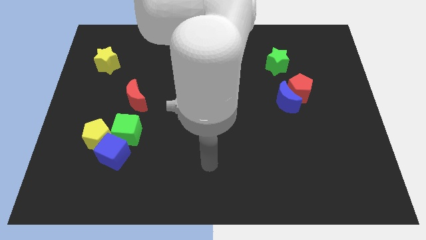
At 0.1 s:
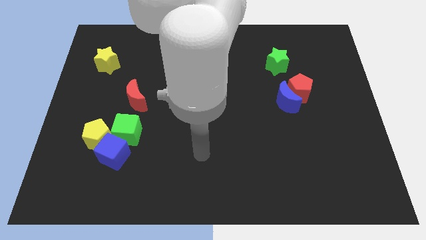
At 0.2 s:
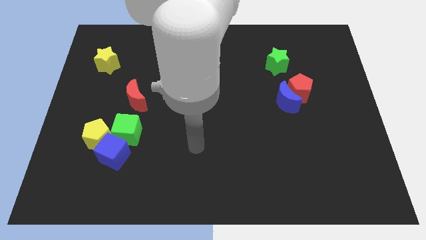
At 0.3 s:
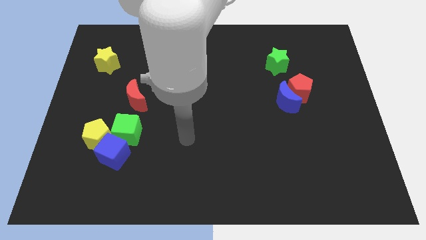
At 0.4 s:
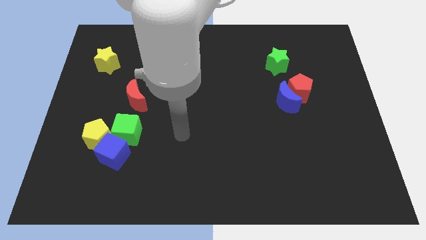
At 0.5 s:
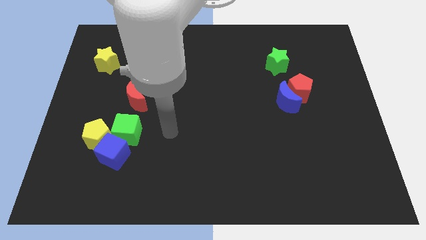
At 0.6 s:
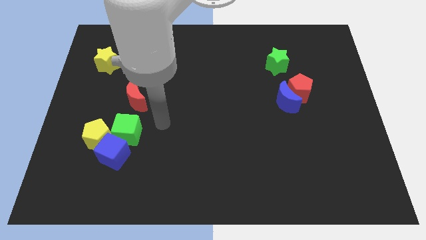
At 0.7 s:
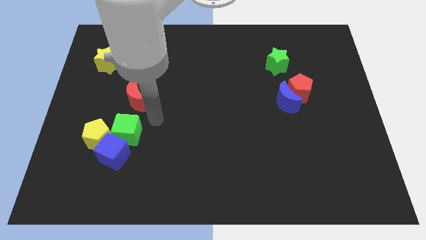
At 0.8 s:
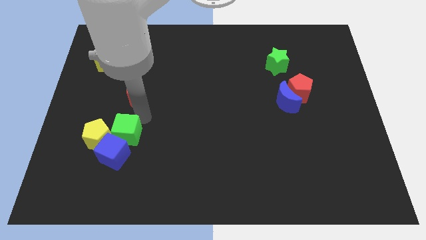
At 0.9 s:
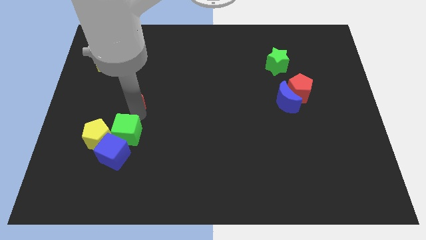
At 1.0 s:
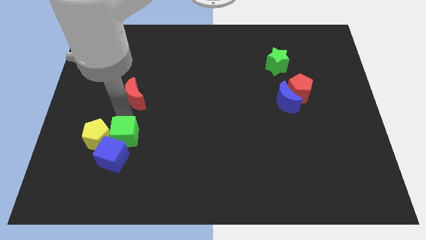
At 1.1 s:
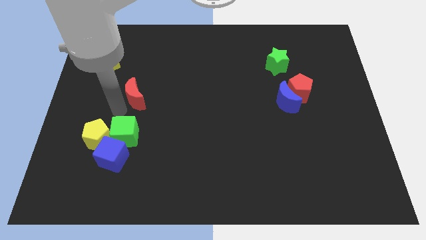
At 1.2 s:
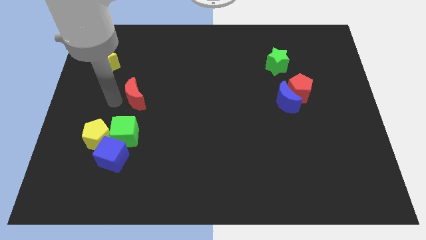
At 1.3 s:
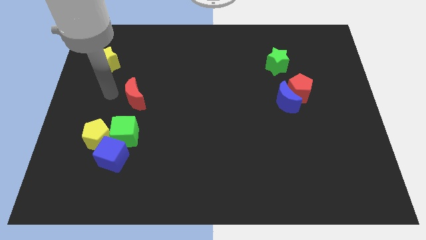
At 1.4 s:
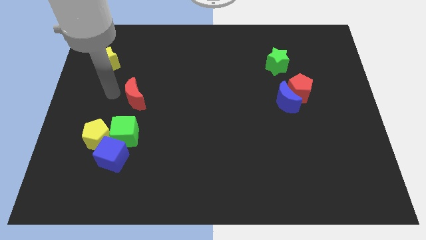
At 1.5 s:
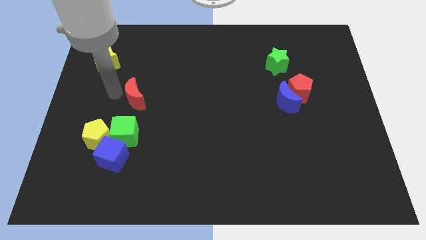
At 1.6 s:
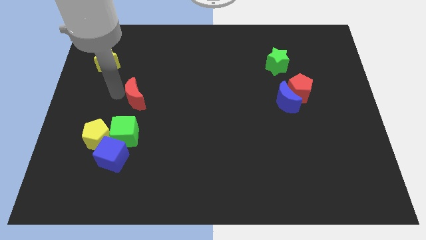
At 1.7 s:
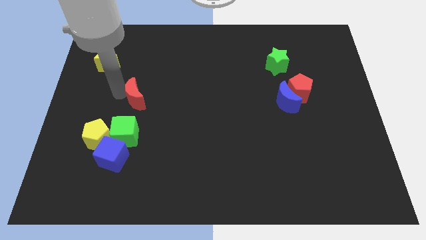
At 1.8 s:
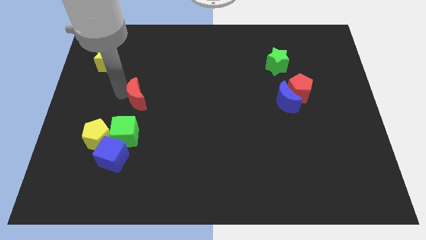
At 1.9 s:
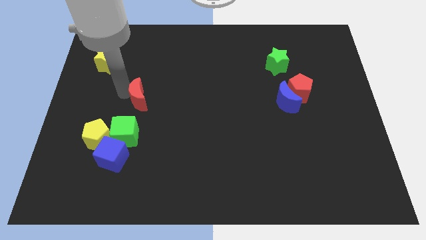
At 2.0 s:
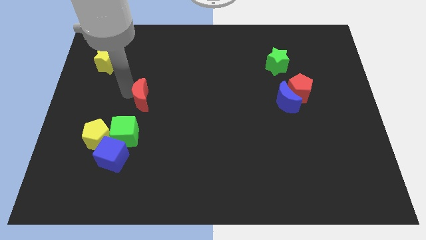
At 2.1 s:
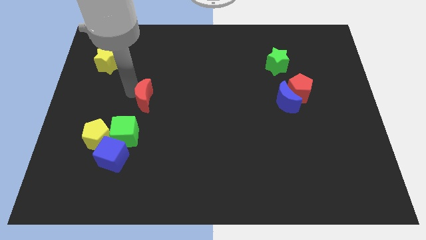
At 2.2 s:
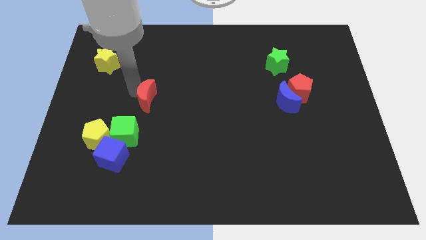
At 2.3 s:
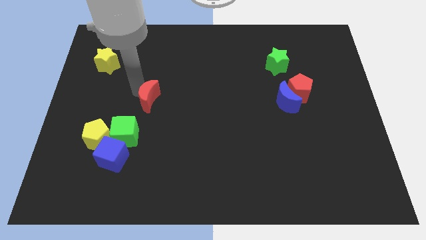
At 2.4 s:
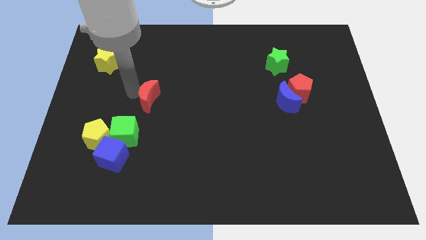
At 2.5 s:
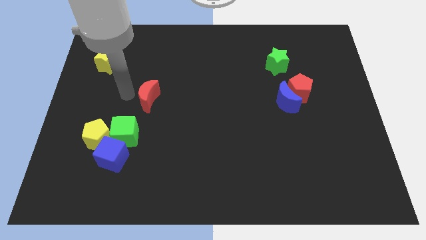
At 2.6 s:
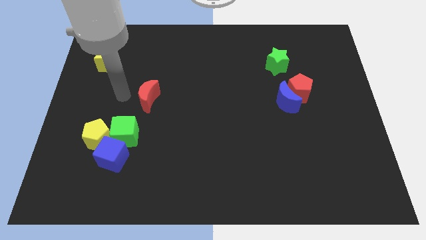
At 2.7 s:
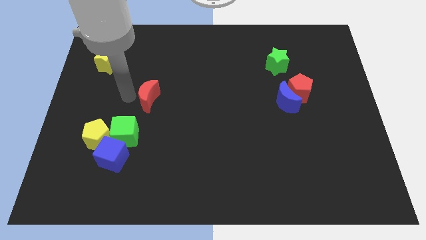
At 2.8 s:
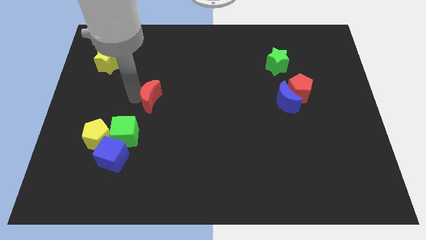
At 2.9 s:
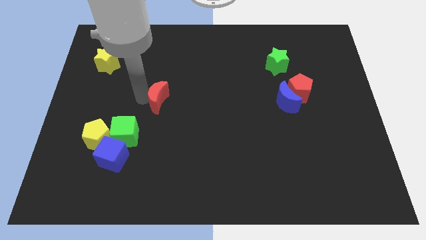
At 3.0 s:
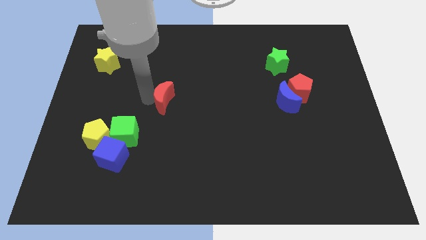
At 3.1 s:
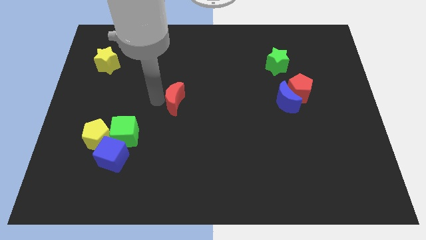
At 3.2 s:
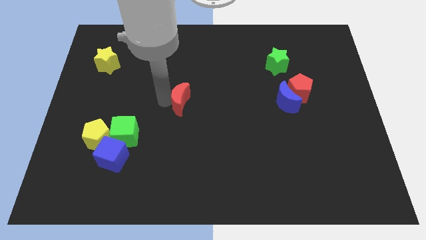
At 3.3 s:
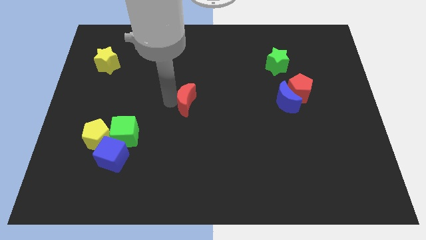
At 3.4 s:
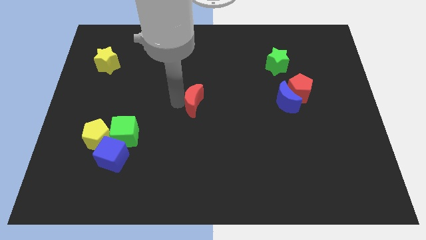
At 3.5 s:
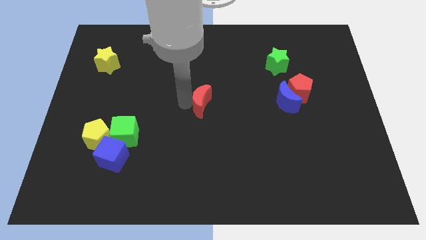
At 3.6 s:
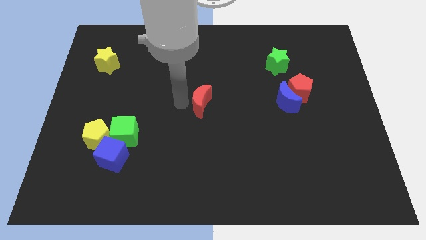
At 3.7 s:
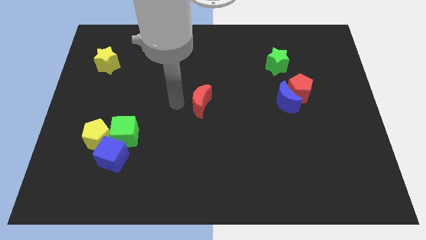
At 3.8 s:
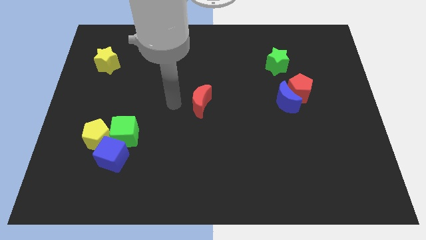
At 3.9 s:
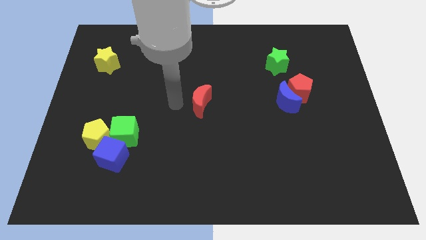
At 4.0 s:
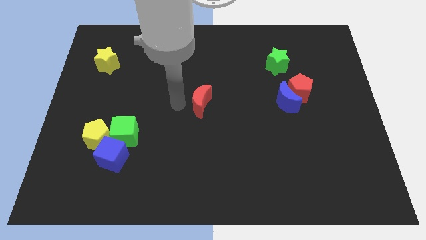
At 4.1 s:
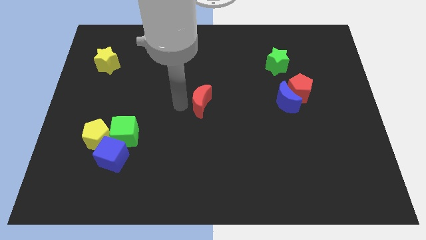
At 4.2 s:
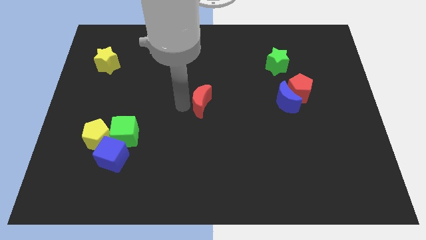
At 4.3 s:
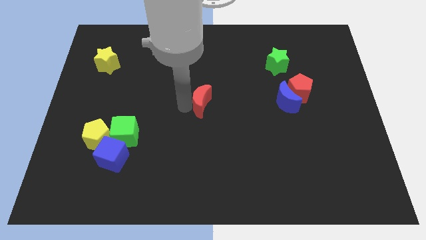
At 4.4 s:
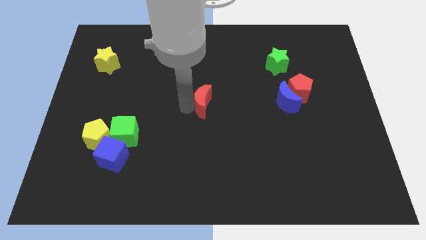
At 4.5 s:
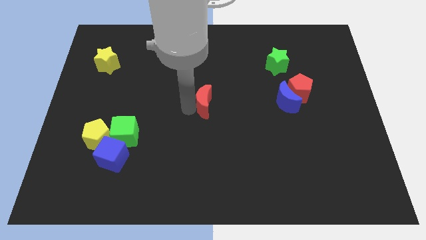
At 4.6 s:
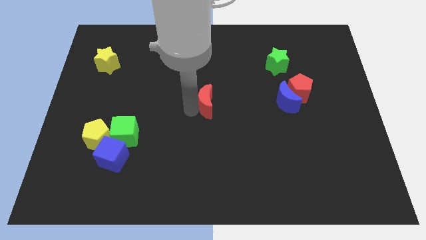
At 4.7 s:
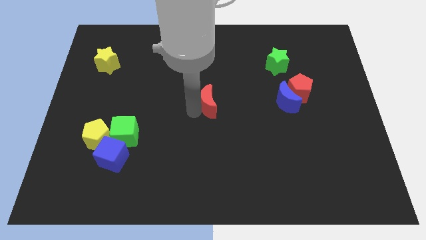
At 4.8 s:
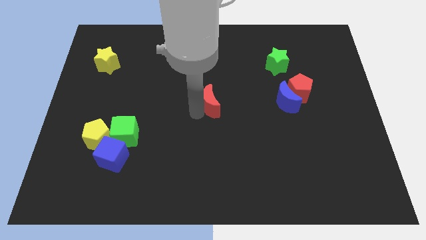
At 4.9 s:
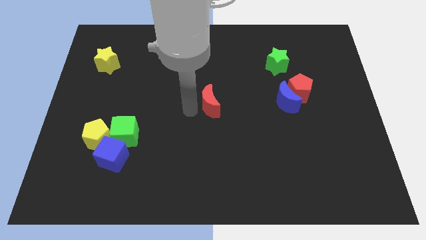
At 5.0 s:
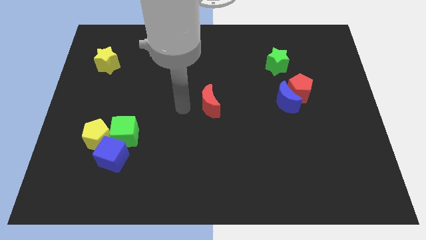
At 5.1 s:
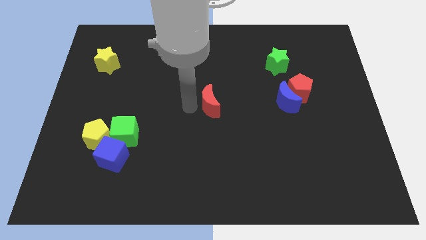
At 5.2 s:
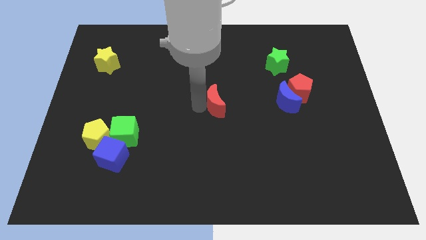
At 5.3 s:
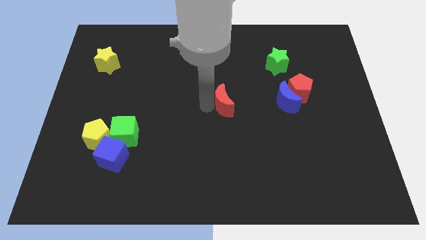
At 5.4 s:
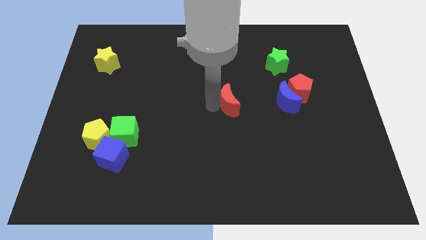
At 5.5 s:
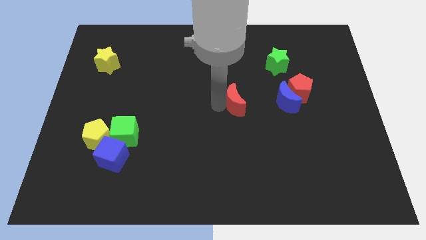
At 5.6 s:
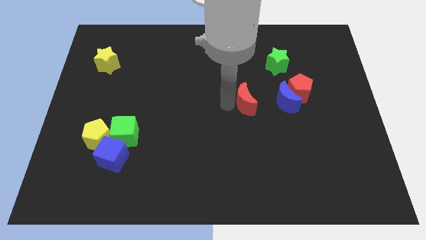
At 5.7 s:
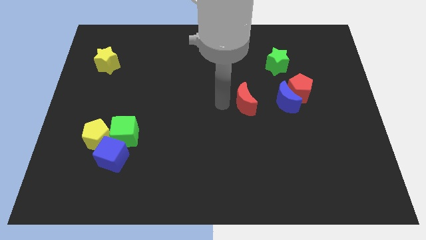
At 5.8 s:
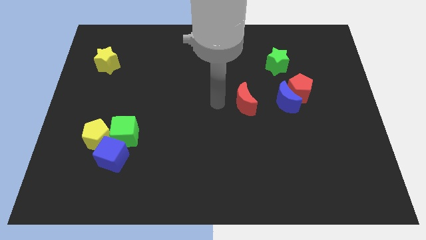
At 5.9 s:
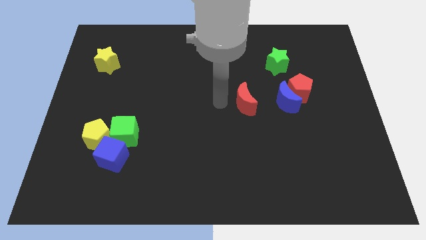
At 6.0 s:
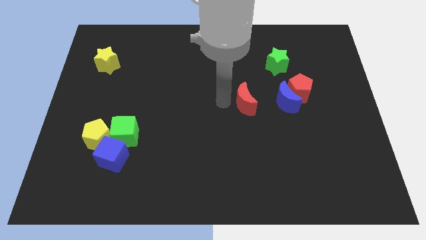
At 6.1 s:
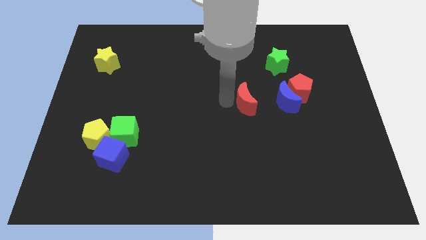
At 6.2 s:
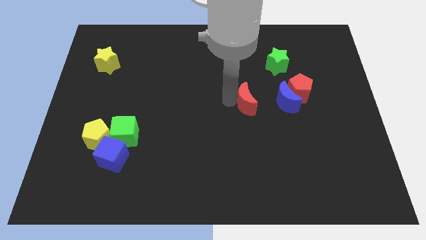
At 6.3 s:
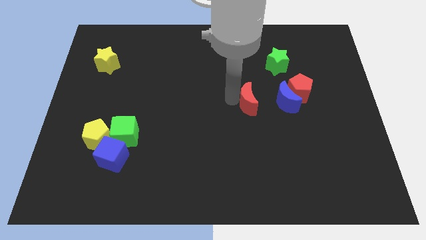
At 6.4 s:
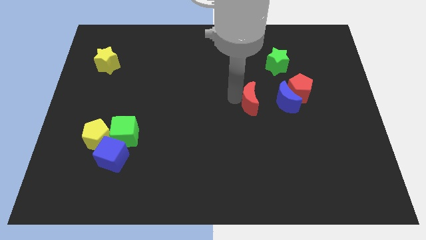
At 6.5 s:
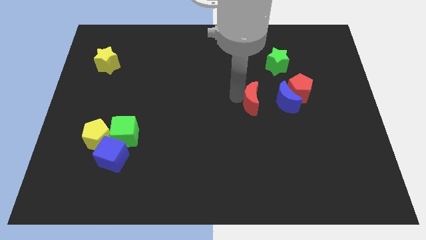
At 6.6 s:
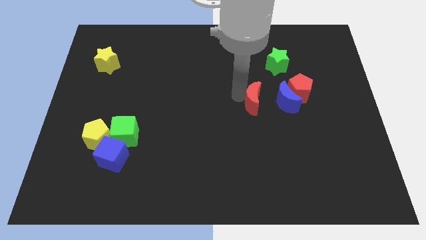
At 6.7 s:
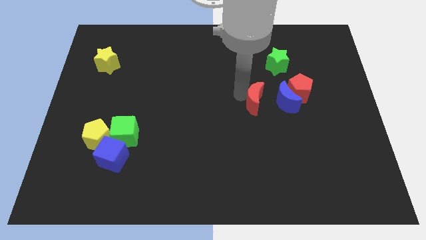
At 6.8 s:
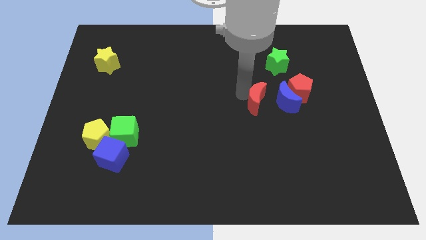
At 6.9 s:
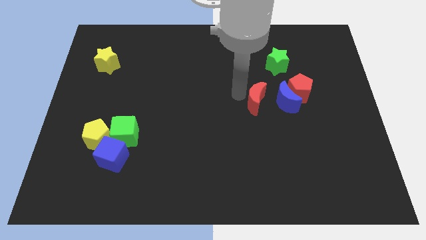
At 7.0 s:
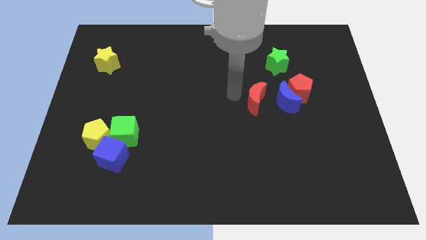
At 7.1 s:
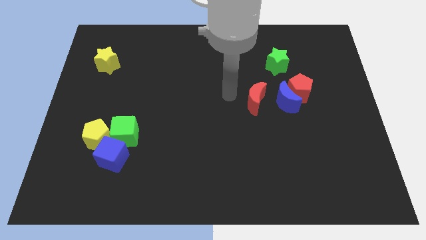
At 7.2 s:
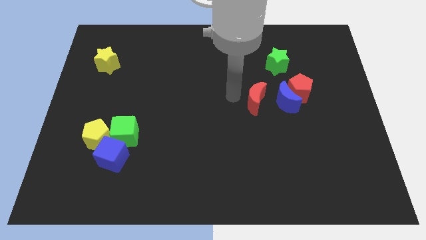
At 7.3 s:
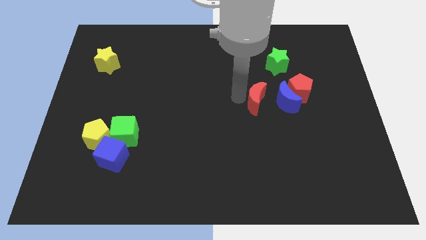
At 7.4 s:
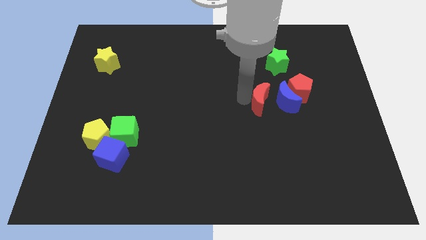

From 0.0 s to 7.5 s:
slide the red moon close to the blue moon
